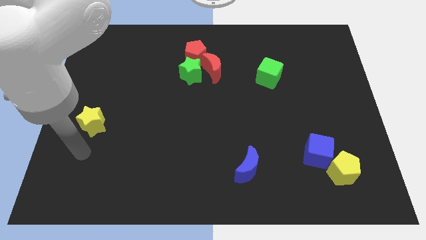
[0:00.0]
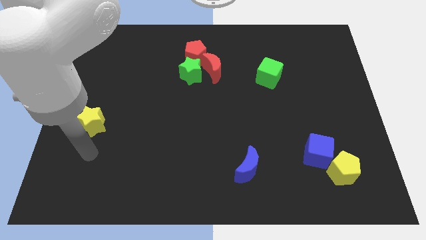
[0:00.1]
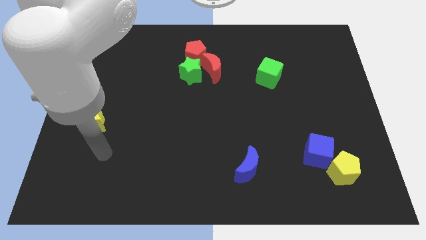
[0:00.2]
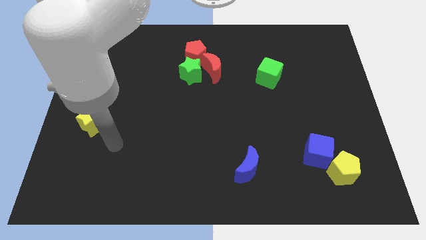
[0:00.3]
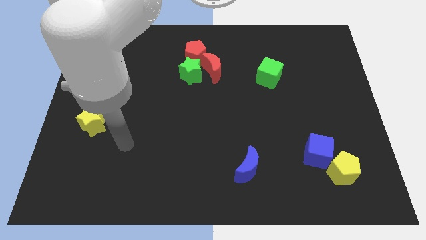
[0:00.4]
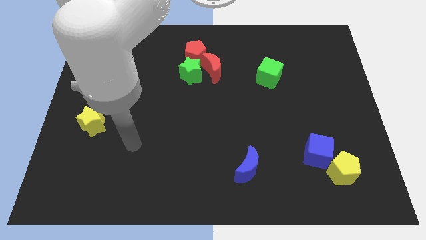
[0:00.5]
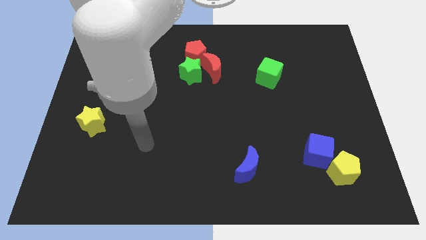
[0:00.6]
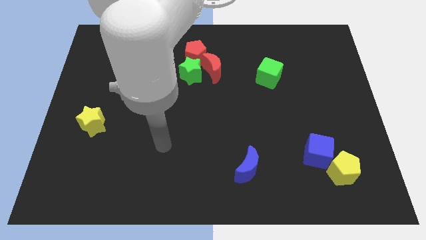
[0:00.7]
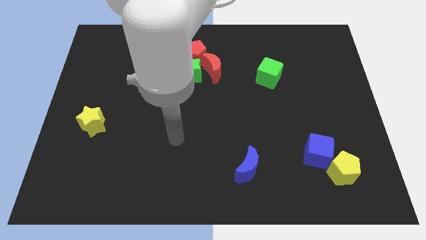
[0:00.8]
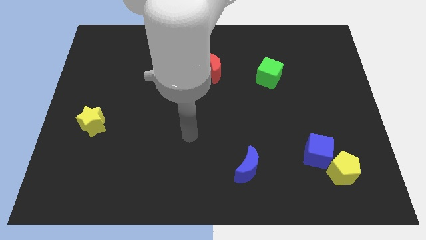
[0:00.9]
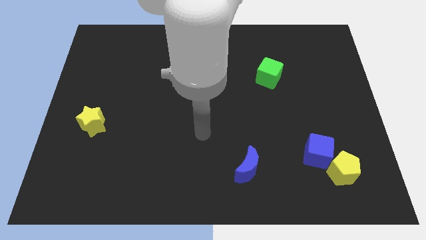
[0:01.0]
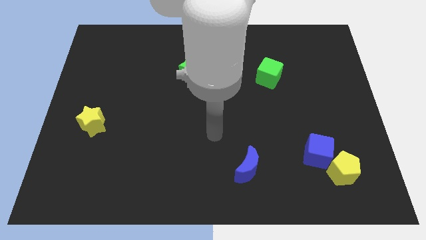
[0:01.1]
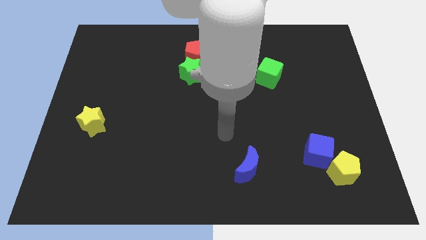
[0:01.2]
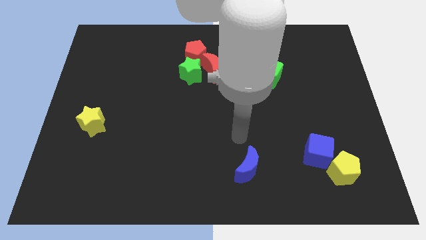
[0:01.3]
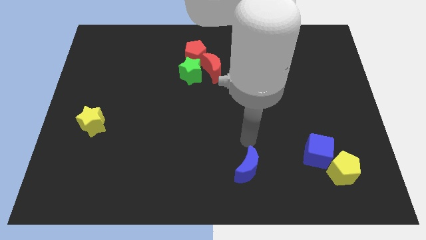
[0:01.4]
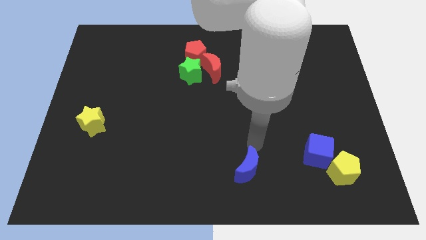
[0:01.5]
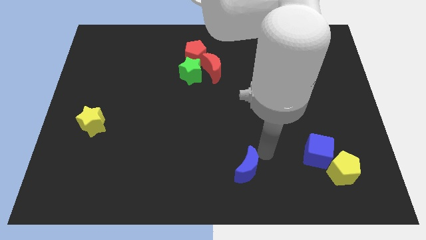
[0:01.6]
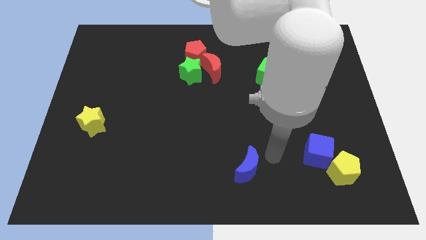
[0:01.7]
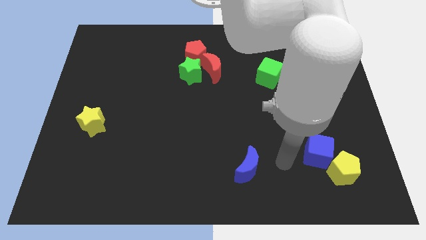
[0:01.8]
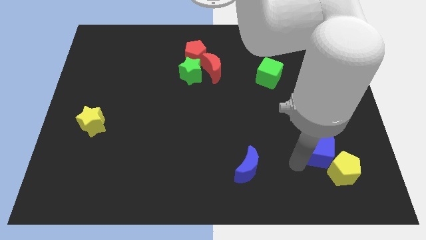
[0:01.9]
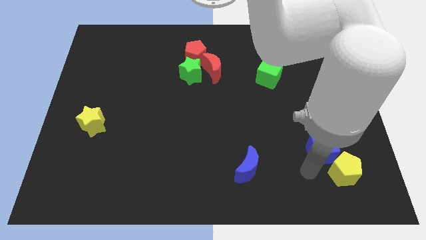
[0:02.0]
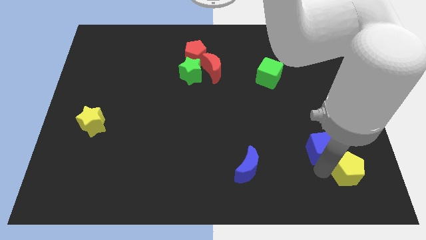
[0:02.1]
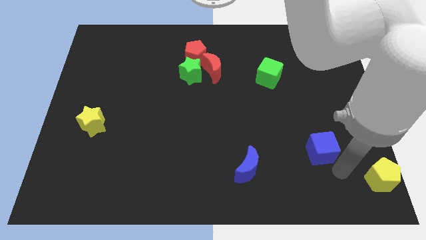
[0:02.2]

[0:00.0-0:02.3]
separate the blue cube from the yellow pentagon

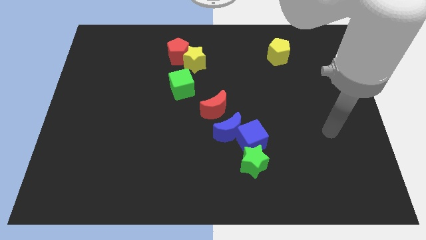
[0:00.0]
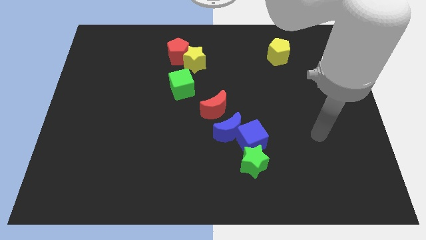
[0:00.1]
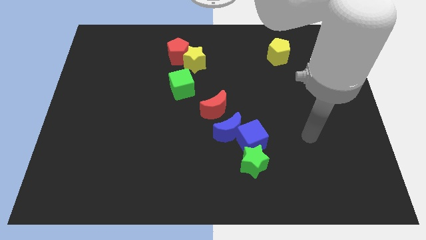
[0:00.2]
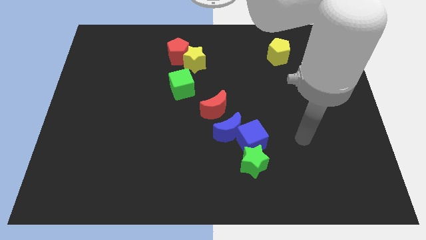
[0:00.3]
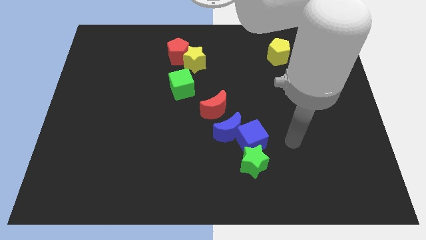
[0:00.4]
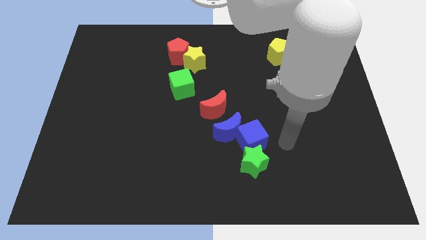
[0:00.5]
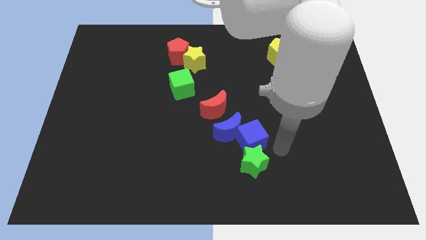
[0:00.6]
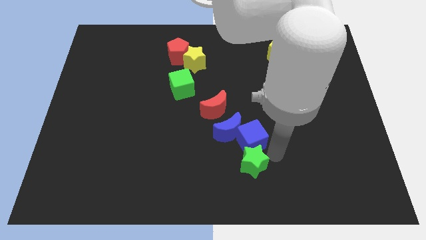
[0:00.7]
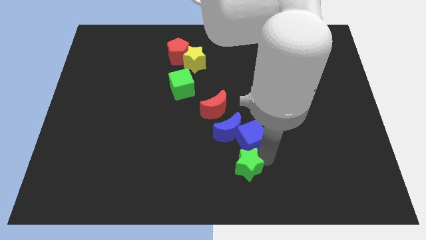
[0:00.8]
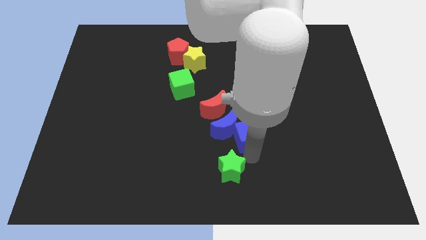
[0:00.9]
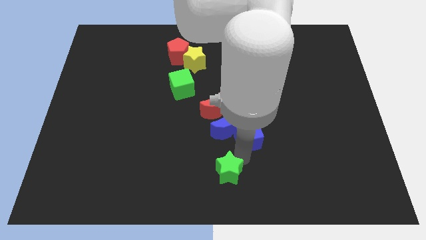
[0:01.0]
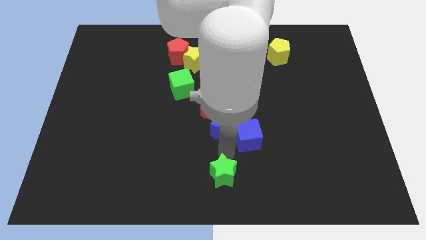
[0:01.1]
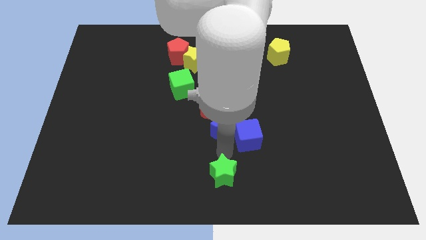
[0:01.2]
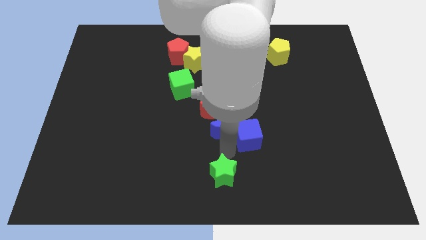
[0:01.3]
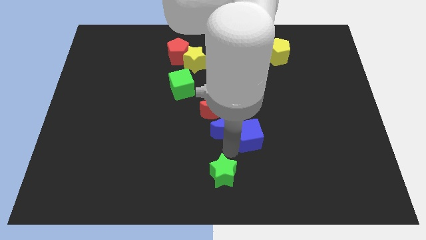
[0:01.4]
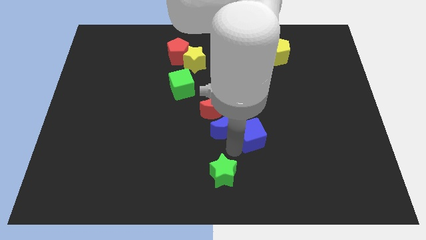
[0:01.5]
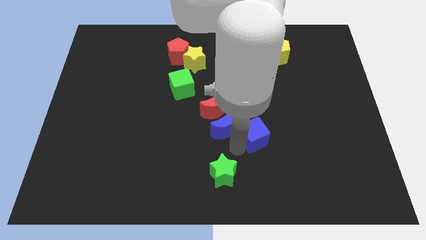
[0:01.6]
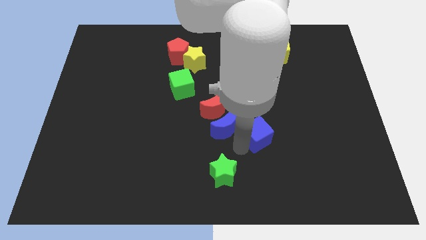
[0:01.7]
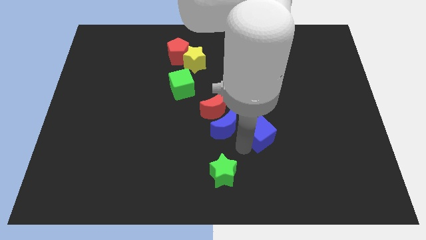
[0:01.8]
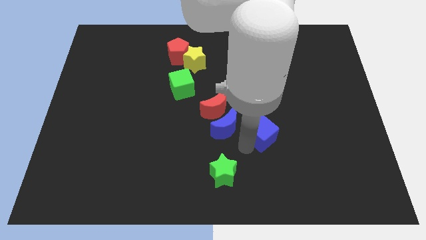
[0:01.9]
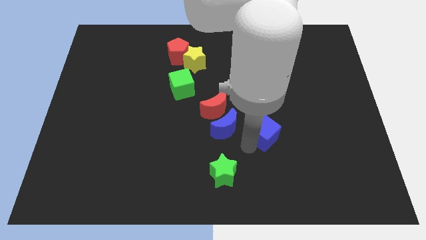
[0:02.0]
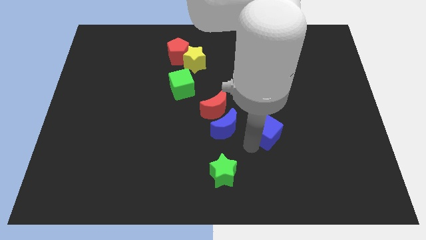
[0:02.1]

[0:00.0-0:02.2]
pull the blue cube apart from the blue moon and green star

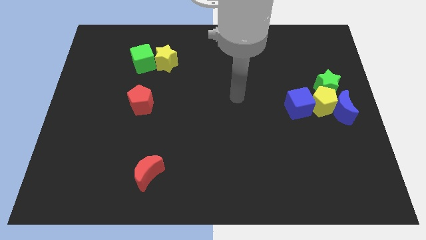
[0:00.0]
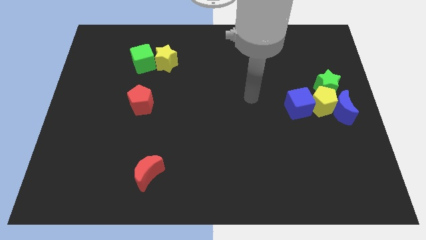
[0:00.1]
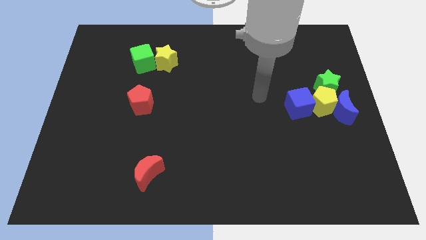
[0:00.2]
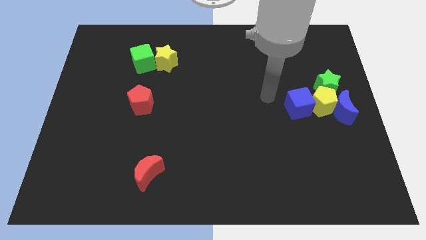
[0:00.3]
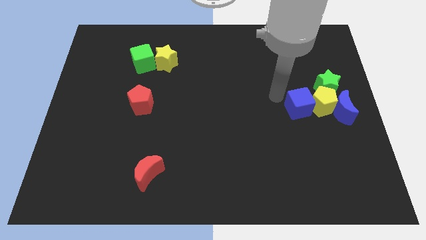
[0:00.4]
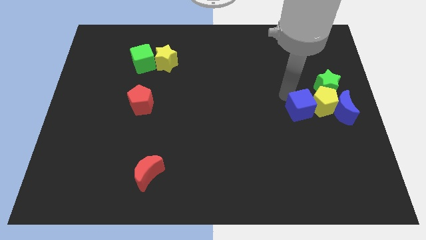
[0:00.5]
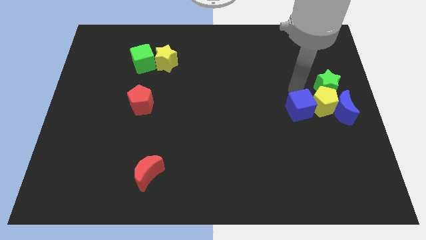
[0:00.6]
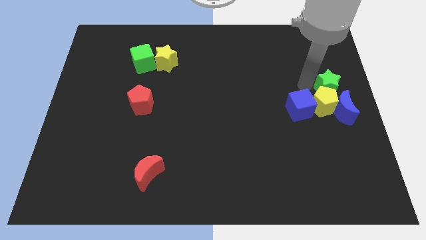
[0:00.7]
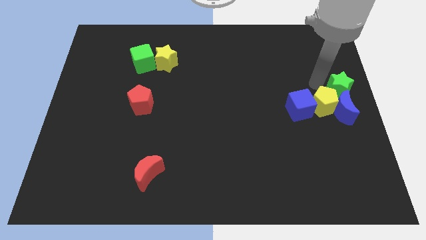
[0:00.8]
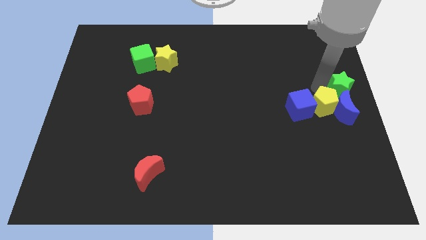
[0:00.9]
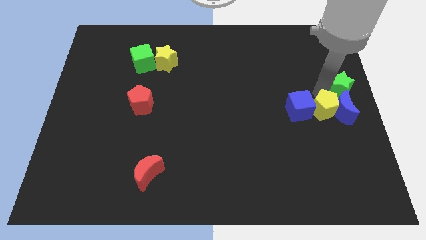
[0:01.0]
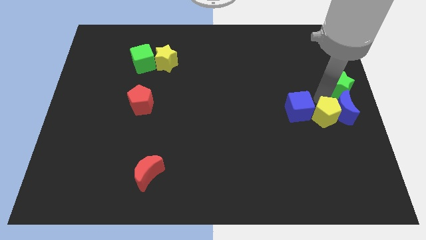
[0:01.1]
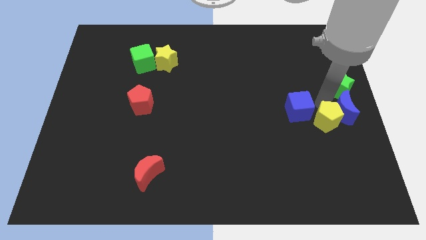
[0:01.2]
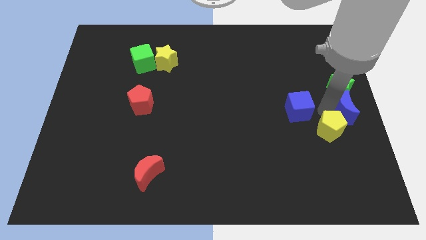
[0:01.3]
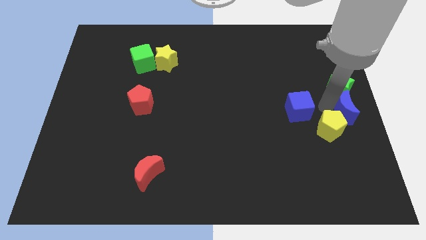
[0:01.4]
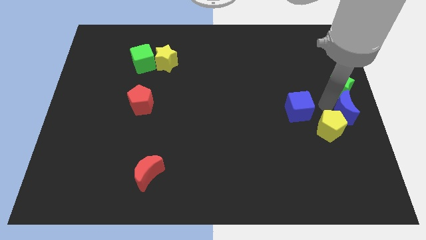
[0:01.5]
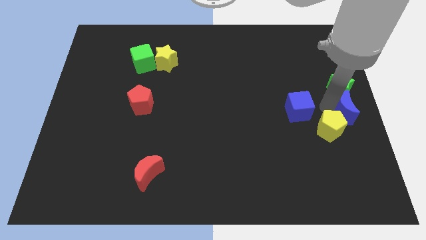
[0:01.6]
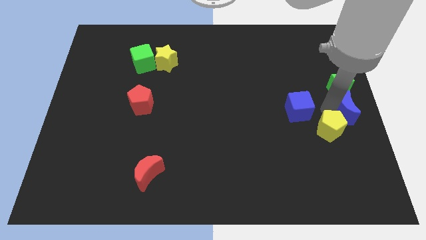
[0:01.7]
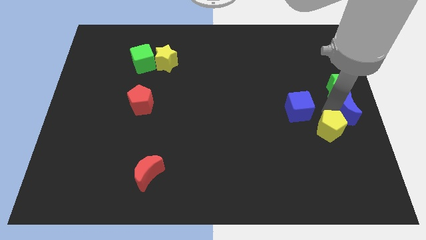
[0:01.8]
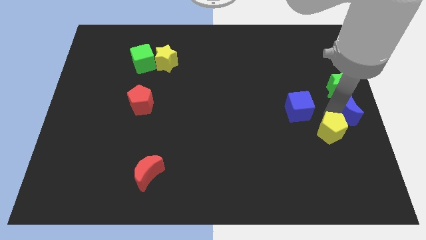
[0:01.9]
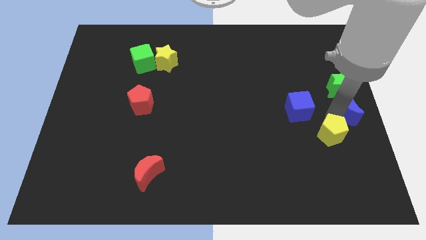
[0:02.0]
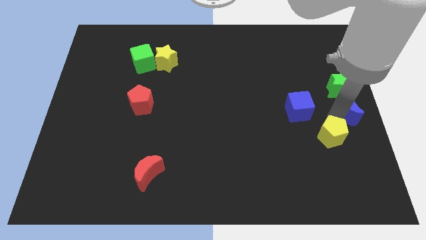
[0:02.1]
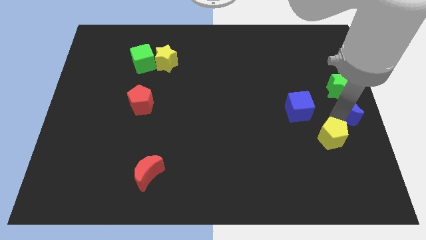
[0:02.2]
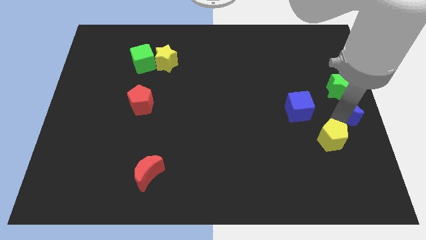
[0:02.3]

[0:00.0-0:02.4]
pull the yellow pentagon apart from the clump

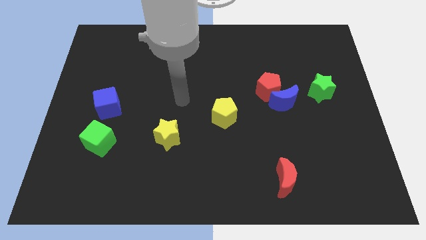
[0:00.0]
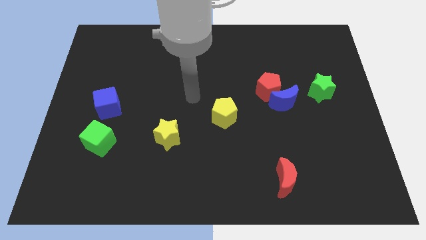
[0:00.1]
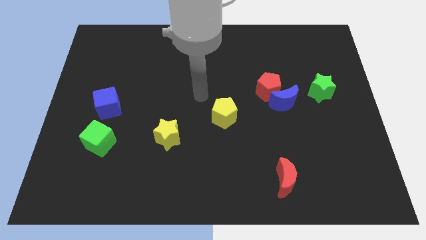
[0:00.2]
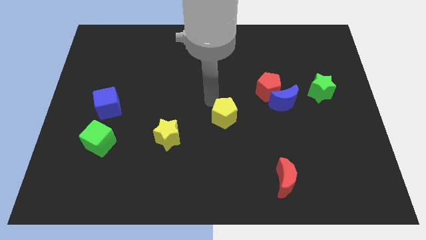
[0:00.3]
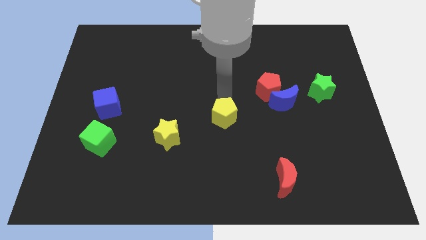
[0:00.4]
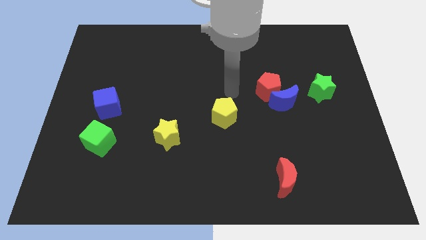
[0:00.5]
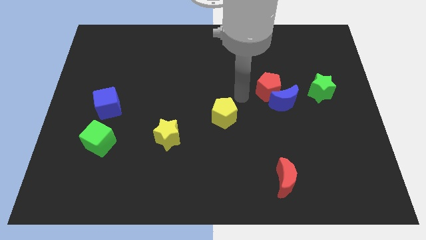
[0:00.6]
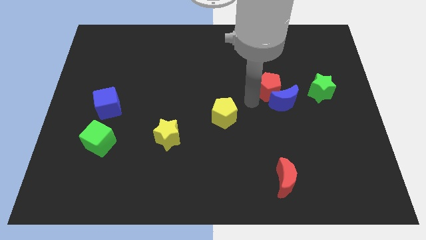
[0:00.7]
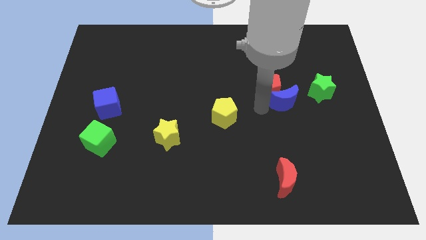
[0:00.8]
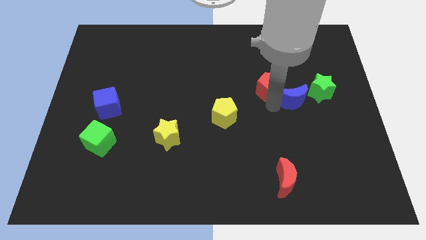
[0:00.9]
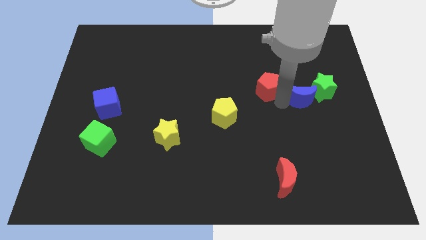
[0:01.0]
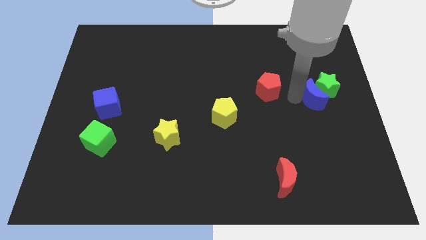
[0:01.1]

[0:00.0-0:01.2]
move the red pentagon away from the blue moon

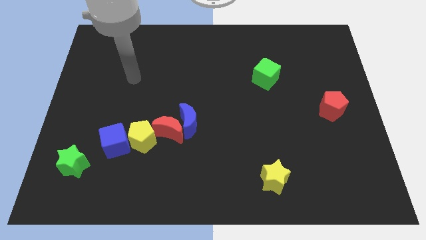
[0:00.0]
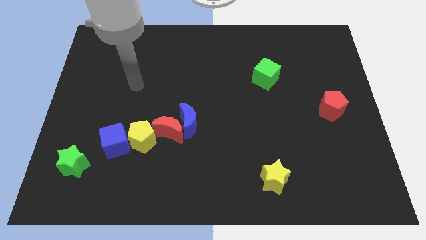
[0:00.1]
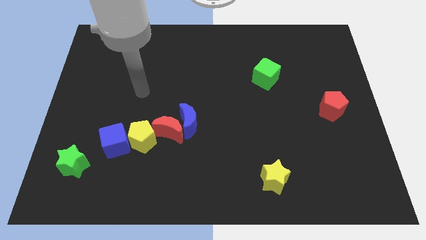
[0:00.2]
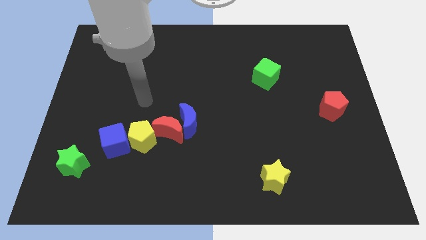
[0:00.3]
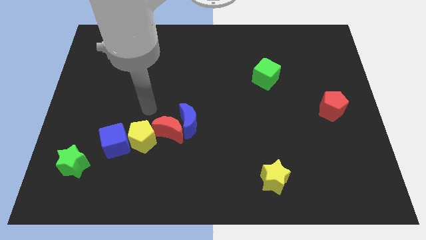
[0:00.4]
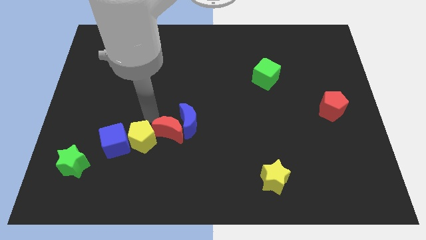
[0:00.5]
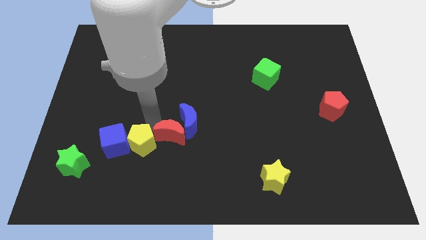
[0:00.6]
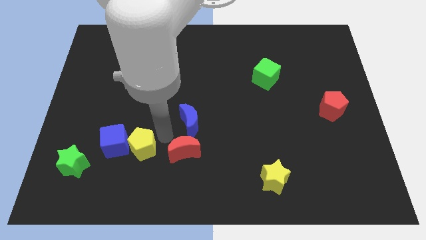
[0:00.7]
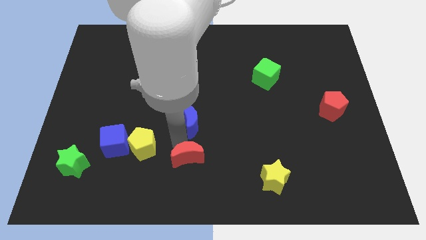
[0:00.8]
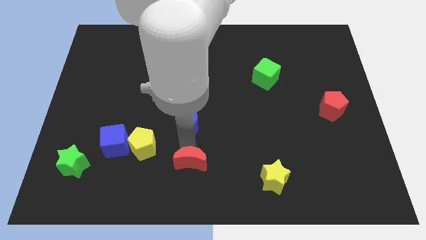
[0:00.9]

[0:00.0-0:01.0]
move the blue moon away from the red moon
